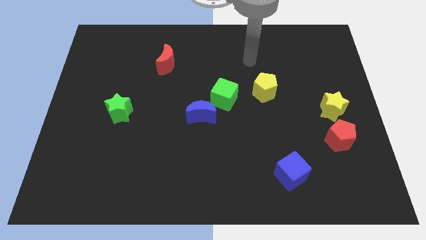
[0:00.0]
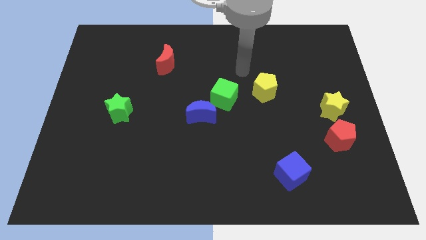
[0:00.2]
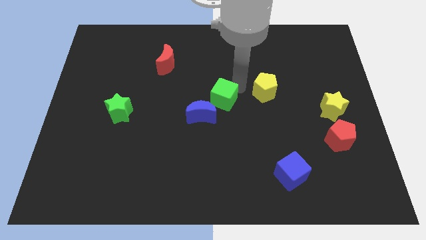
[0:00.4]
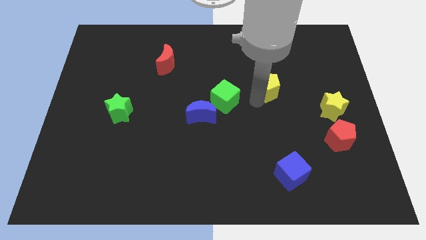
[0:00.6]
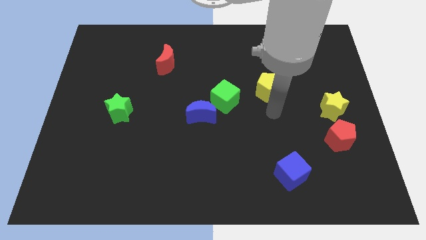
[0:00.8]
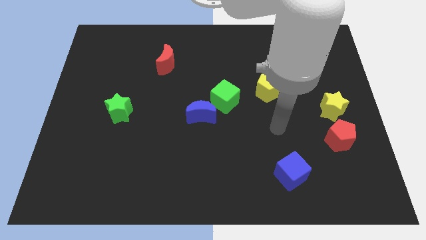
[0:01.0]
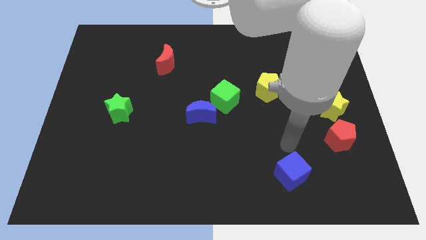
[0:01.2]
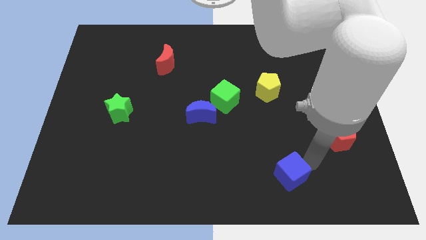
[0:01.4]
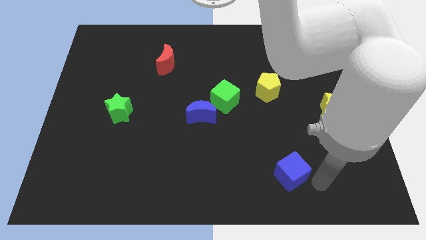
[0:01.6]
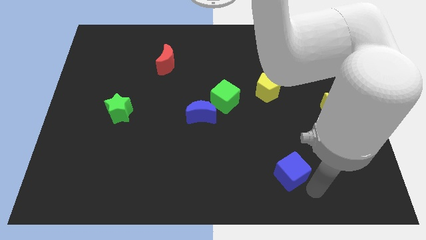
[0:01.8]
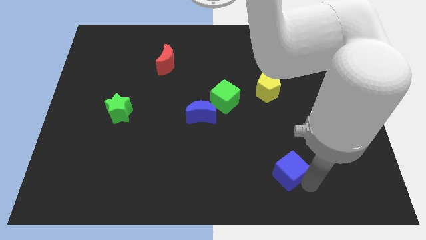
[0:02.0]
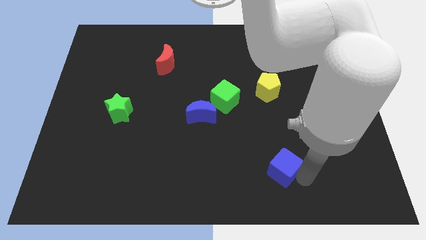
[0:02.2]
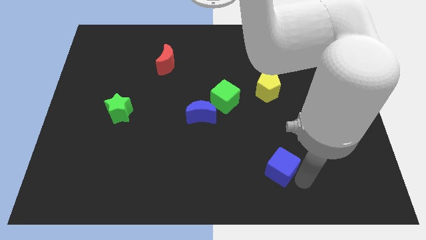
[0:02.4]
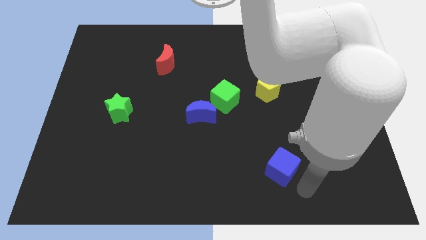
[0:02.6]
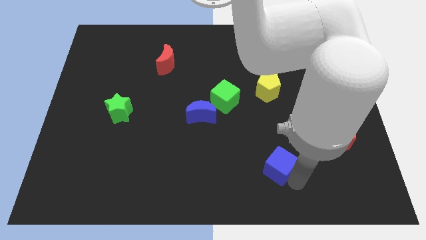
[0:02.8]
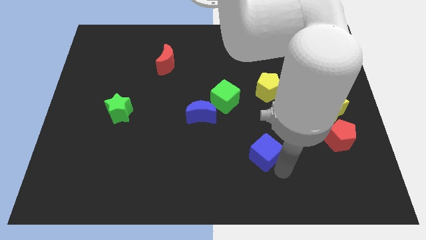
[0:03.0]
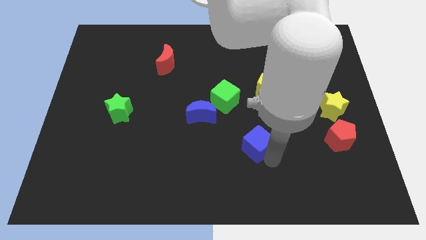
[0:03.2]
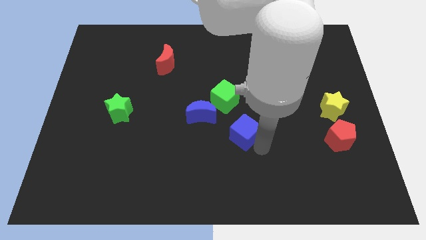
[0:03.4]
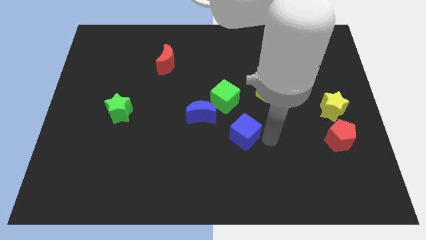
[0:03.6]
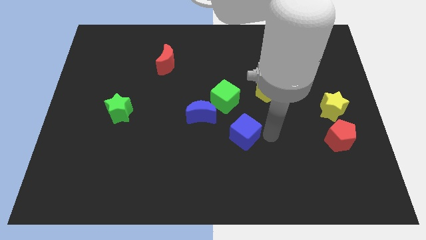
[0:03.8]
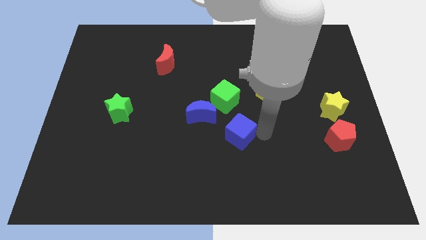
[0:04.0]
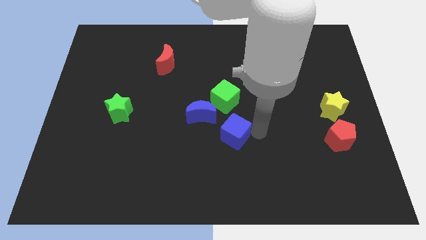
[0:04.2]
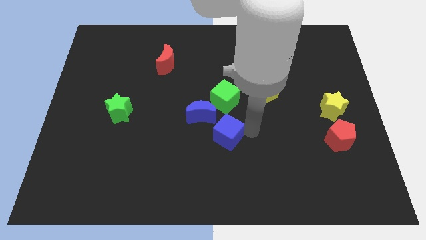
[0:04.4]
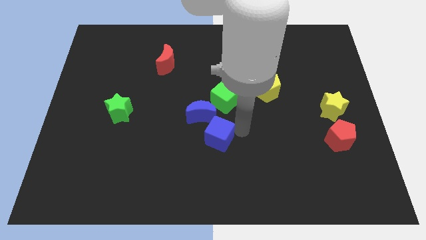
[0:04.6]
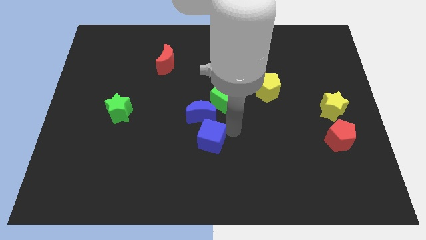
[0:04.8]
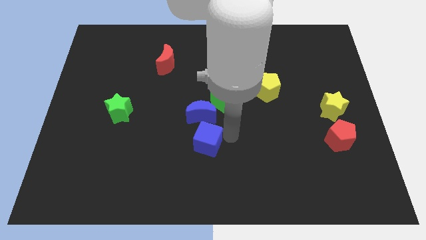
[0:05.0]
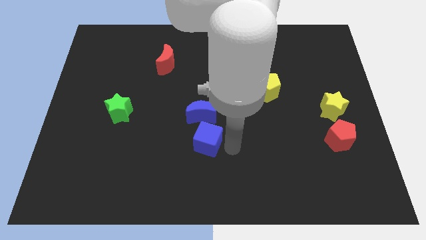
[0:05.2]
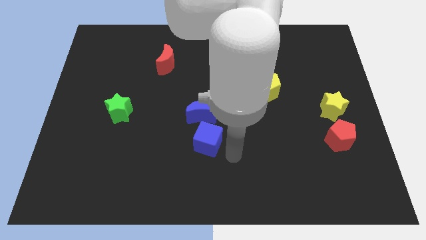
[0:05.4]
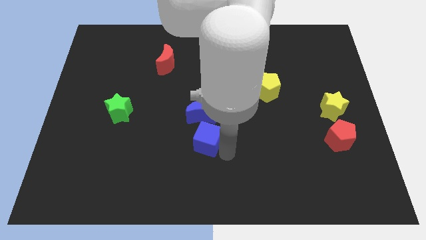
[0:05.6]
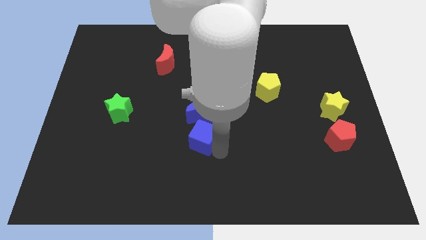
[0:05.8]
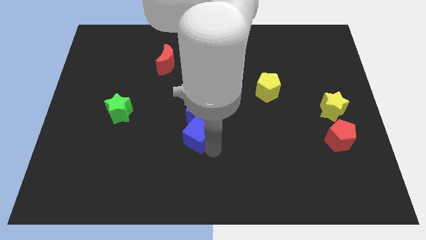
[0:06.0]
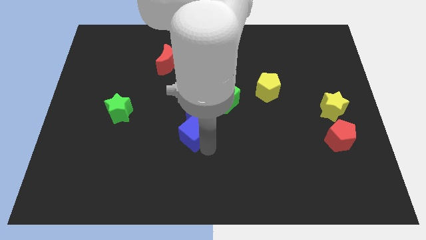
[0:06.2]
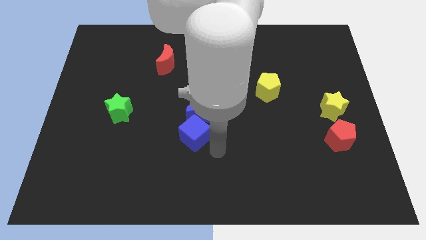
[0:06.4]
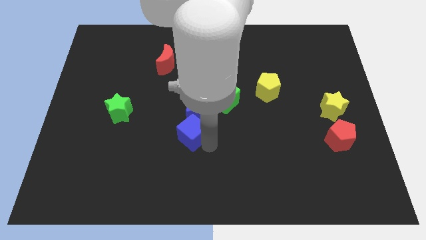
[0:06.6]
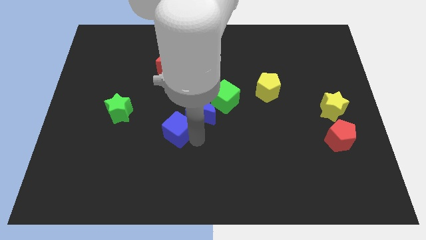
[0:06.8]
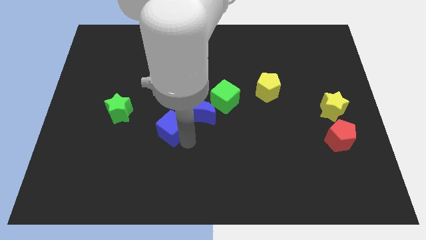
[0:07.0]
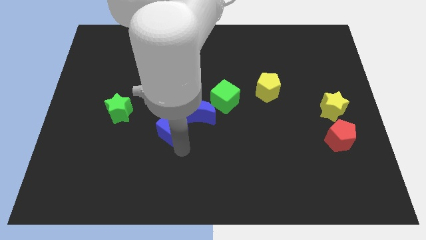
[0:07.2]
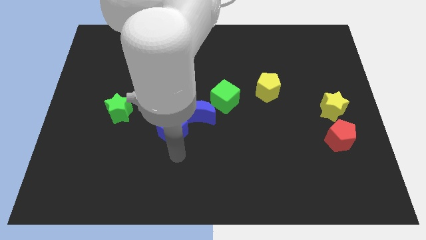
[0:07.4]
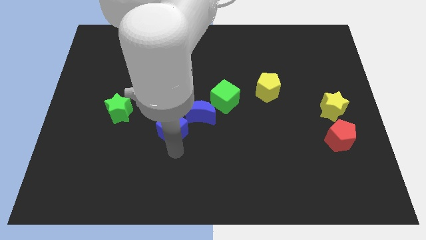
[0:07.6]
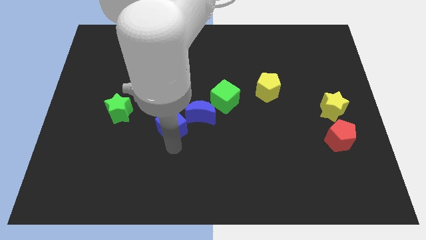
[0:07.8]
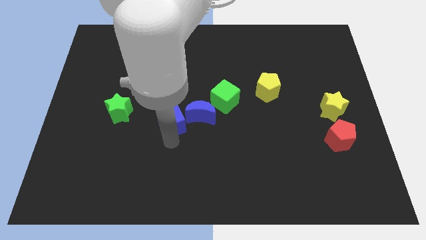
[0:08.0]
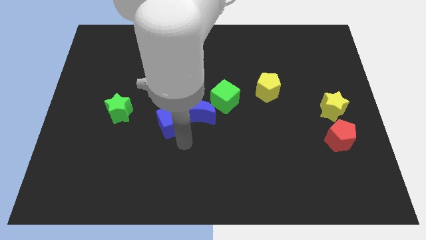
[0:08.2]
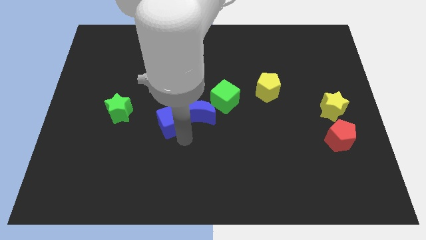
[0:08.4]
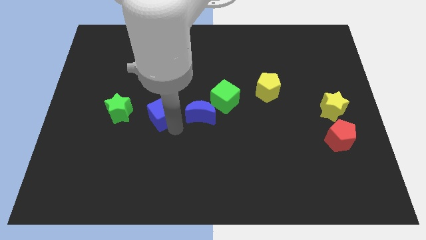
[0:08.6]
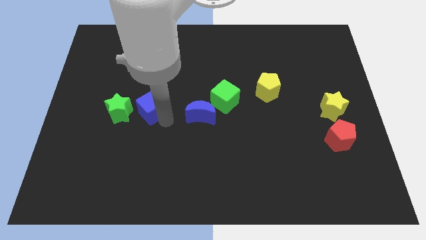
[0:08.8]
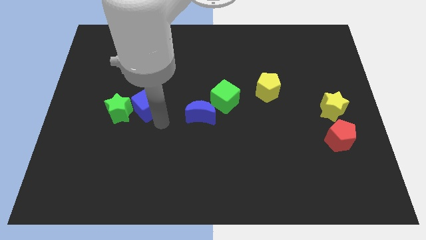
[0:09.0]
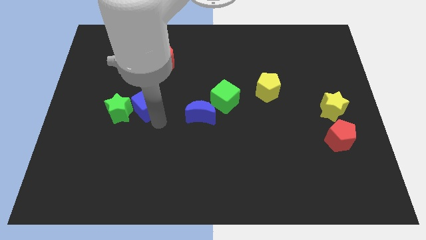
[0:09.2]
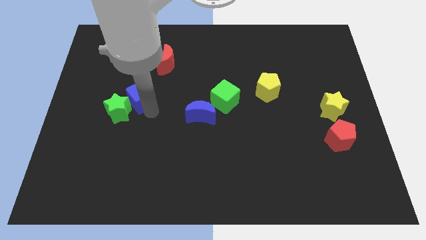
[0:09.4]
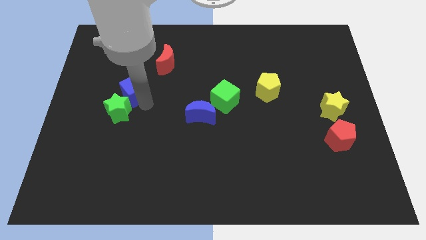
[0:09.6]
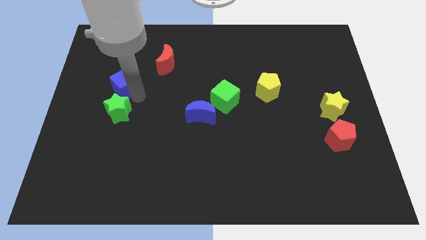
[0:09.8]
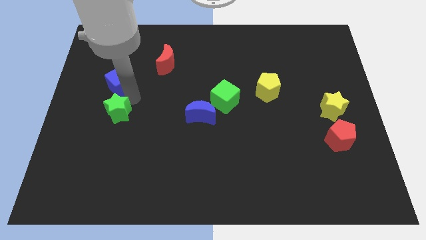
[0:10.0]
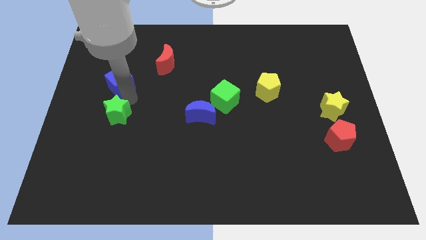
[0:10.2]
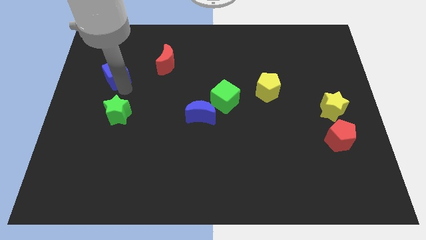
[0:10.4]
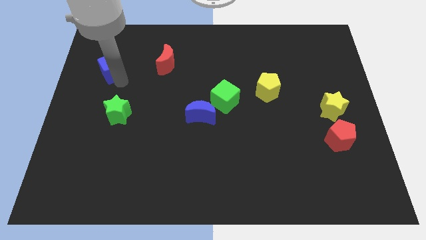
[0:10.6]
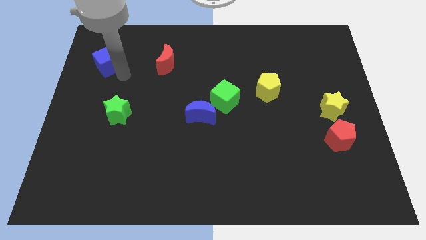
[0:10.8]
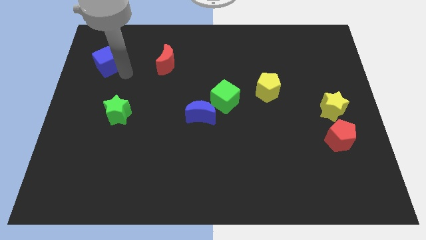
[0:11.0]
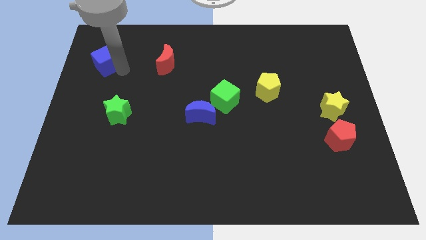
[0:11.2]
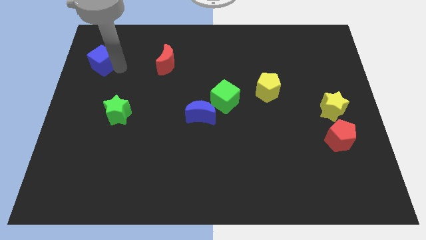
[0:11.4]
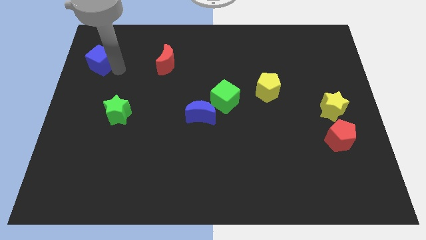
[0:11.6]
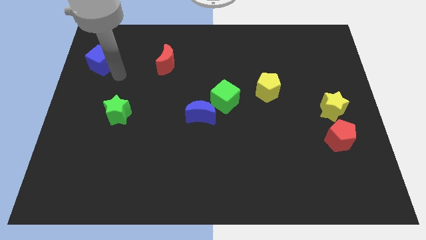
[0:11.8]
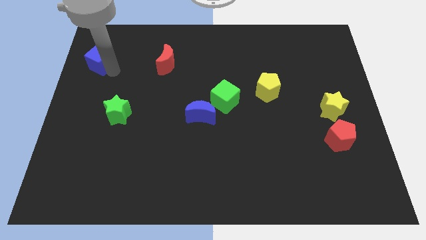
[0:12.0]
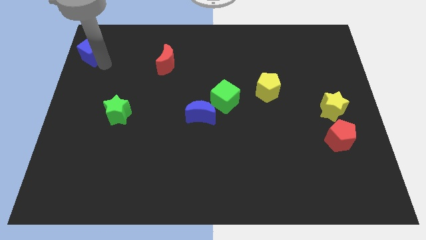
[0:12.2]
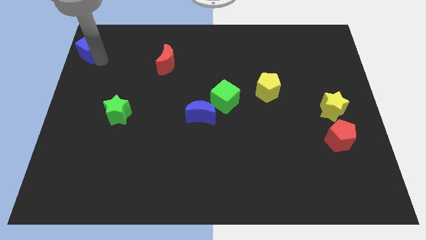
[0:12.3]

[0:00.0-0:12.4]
put the blue cube to the top left of the board

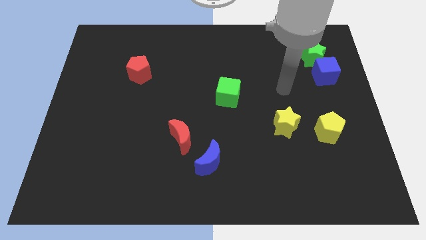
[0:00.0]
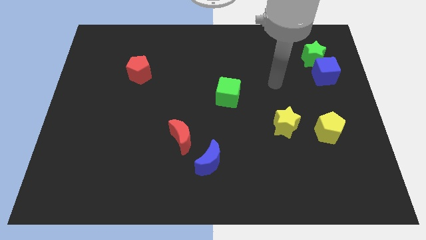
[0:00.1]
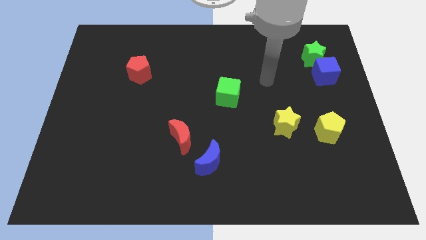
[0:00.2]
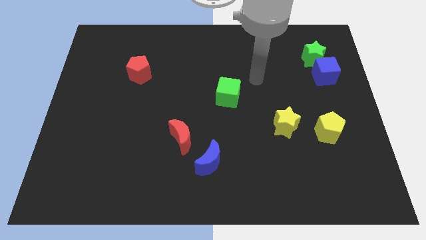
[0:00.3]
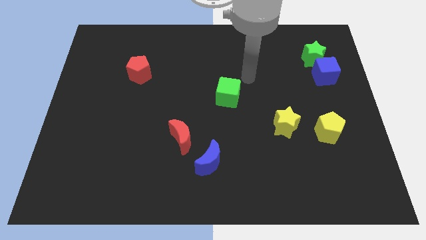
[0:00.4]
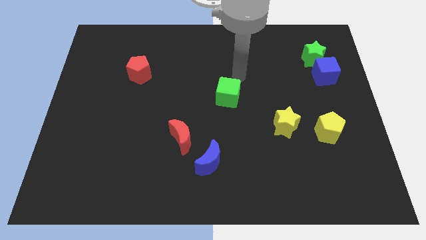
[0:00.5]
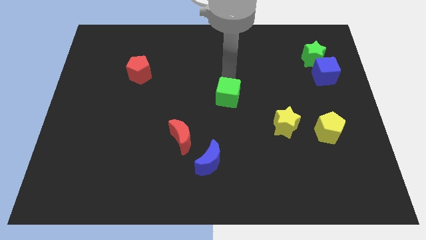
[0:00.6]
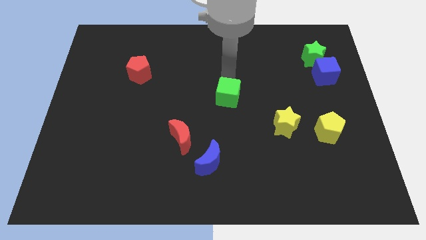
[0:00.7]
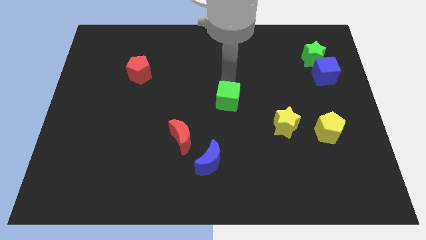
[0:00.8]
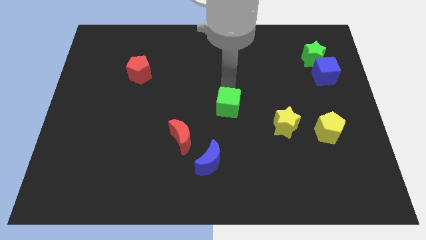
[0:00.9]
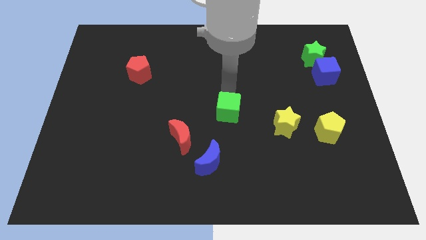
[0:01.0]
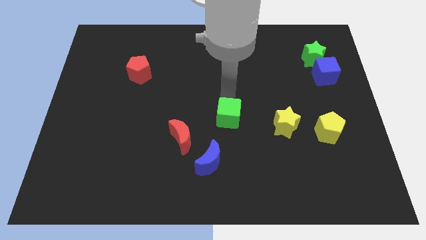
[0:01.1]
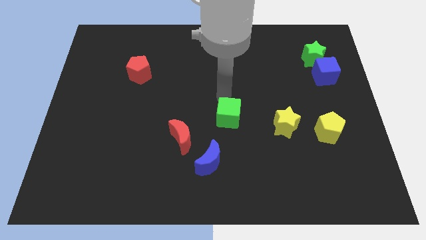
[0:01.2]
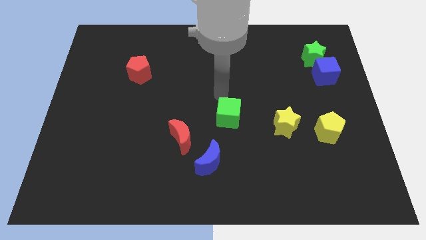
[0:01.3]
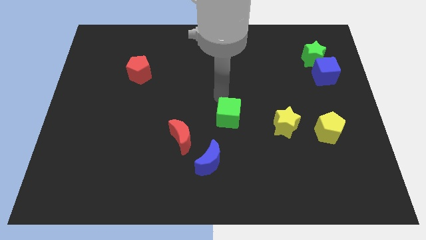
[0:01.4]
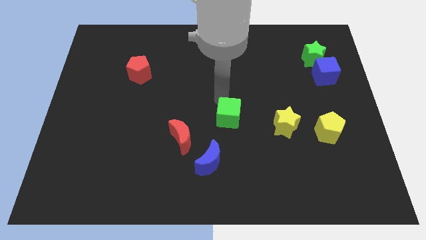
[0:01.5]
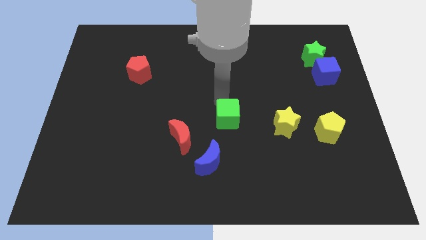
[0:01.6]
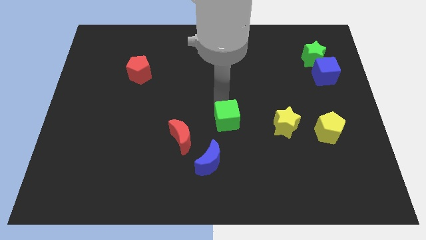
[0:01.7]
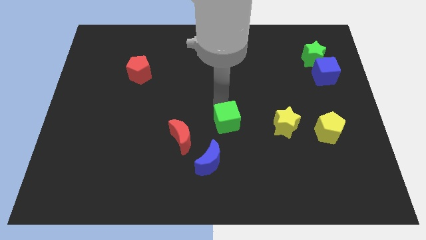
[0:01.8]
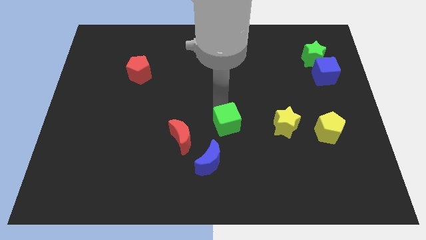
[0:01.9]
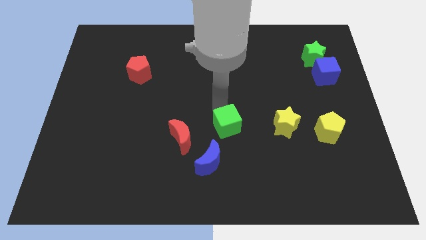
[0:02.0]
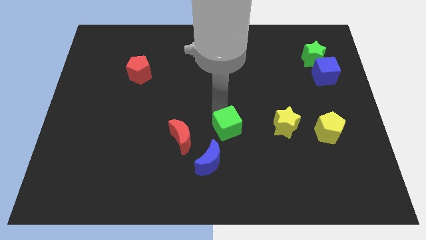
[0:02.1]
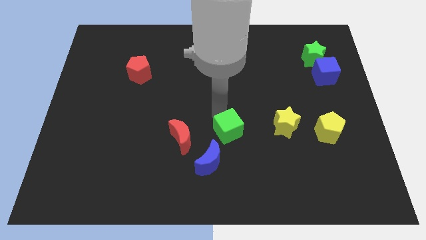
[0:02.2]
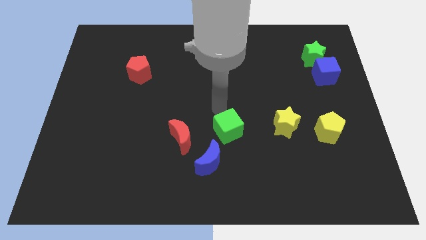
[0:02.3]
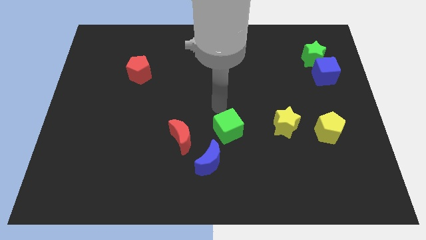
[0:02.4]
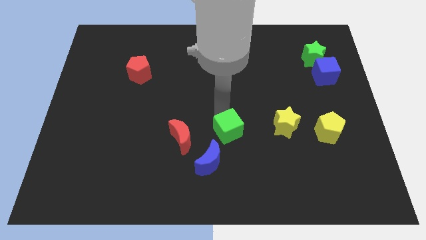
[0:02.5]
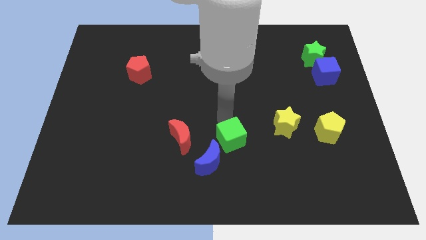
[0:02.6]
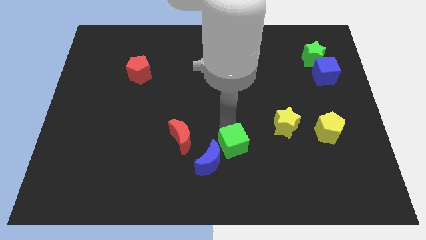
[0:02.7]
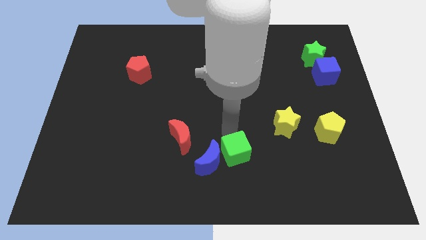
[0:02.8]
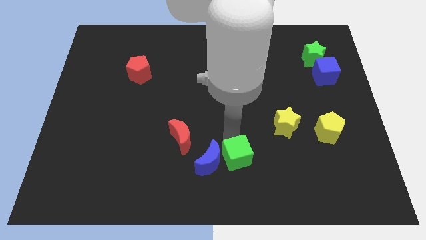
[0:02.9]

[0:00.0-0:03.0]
push the green cube to the bottom side
